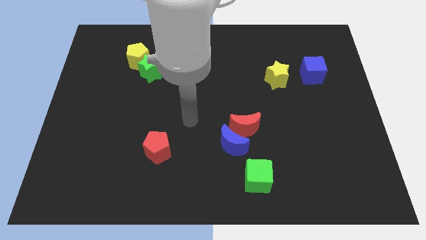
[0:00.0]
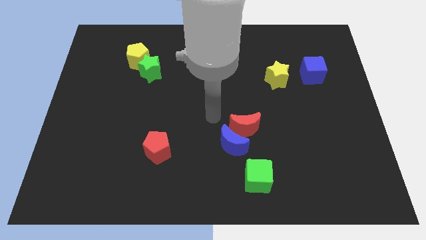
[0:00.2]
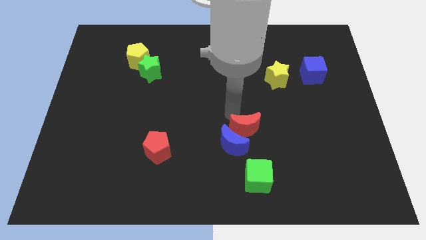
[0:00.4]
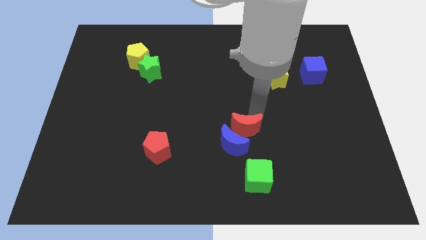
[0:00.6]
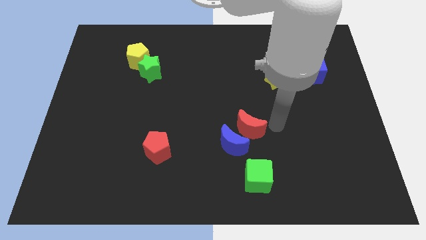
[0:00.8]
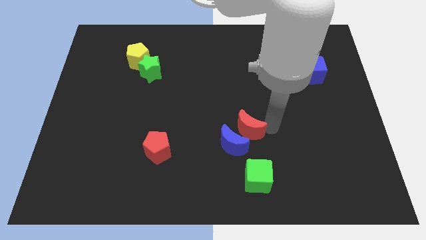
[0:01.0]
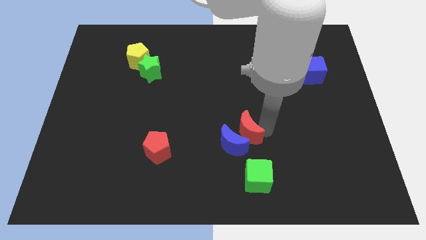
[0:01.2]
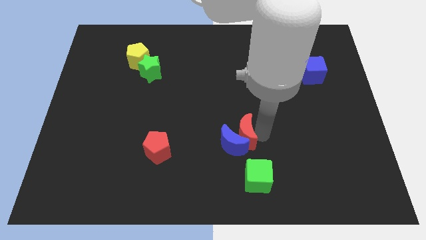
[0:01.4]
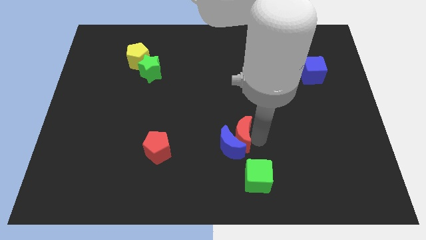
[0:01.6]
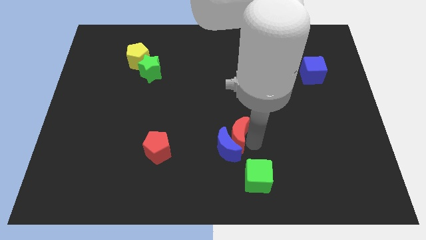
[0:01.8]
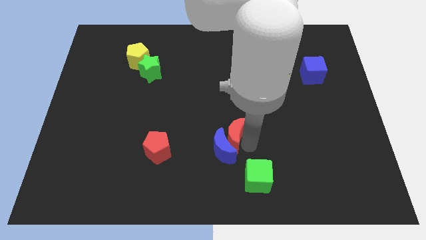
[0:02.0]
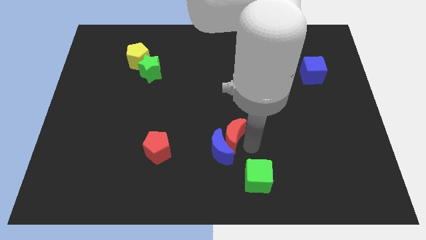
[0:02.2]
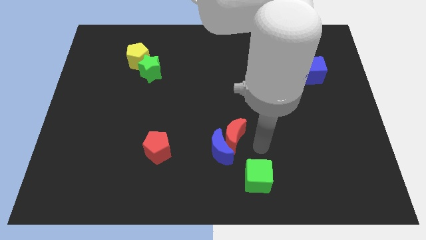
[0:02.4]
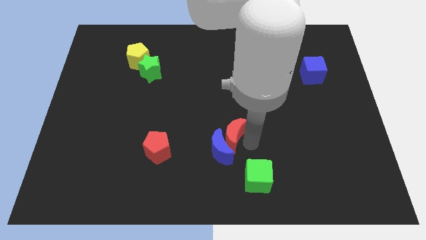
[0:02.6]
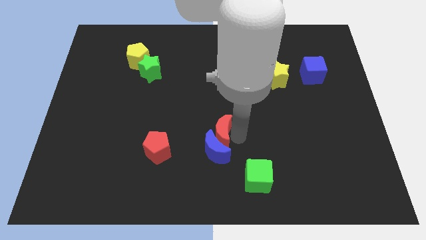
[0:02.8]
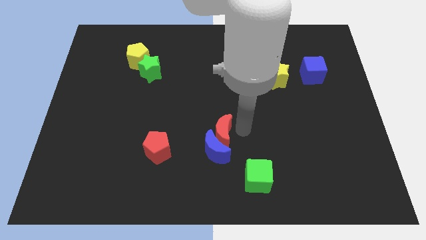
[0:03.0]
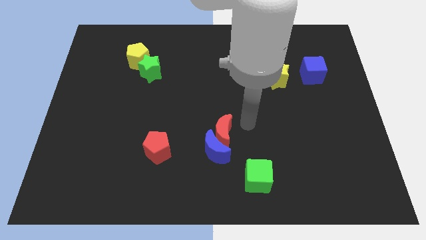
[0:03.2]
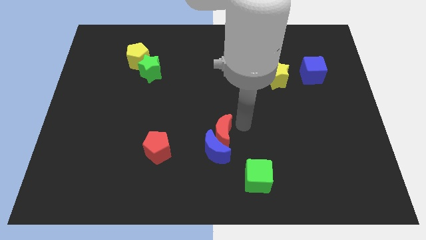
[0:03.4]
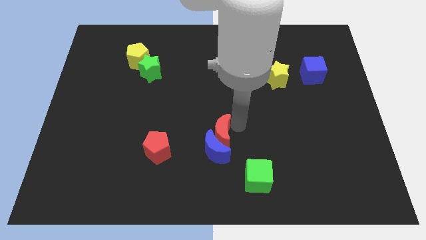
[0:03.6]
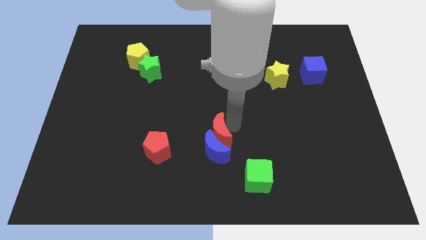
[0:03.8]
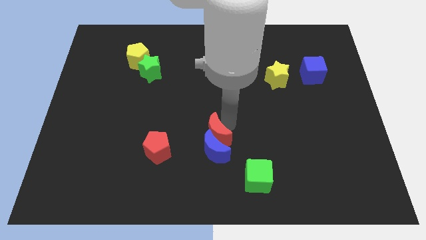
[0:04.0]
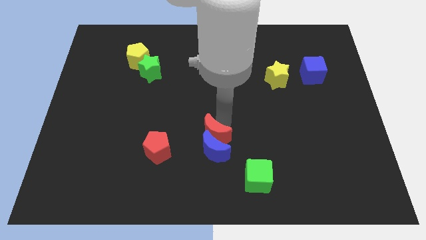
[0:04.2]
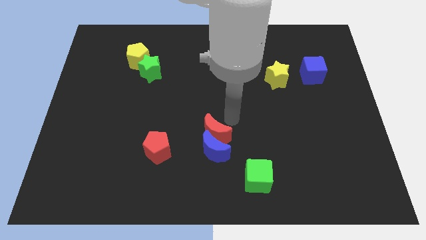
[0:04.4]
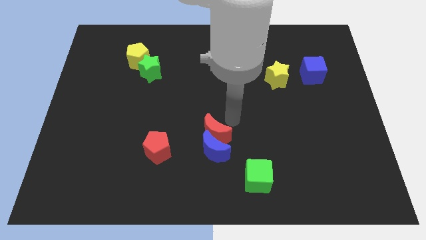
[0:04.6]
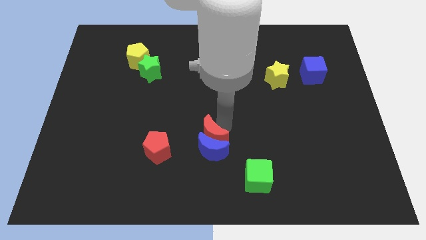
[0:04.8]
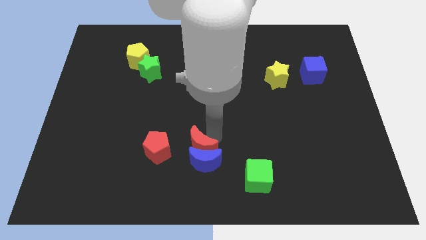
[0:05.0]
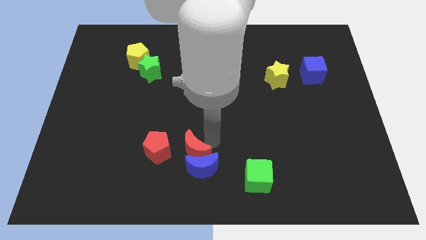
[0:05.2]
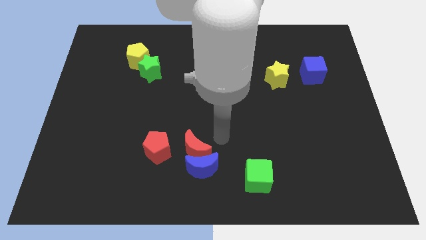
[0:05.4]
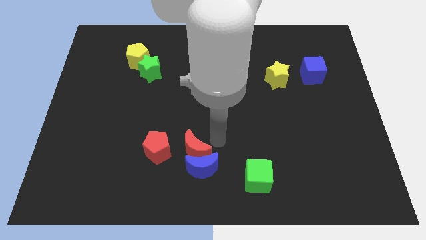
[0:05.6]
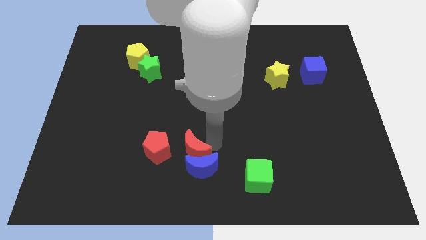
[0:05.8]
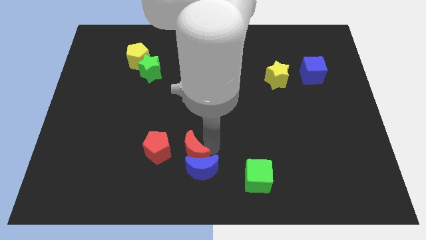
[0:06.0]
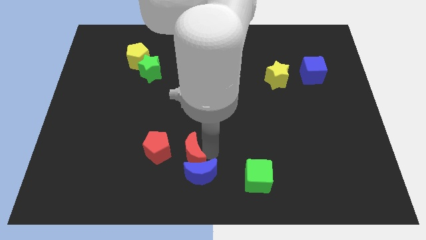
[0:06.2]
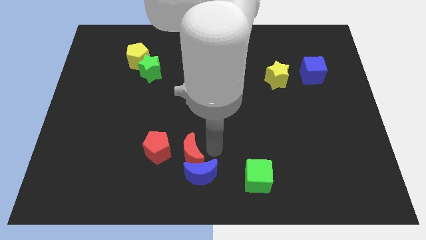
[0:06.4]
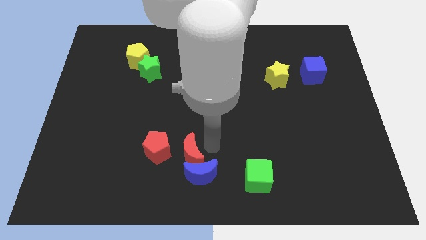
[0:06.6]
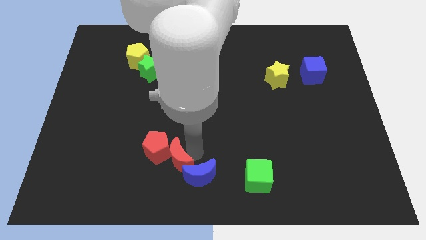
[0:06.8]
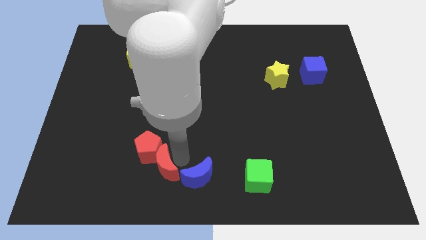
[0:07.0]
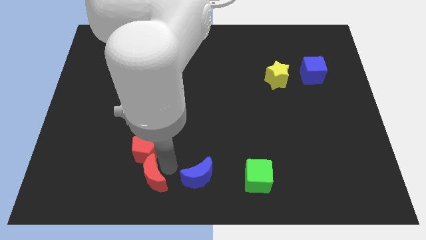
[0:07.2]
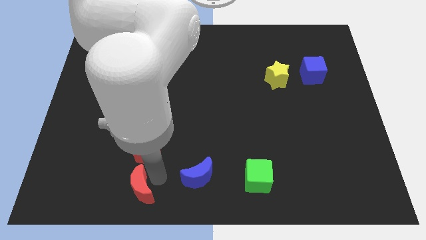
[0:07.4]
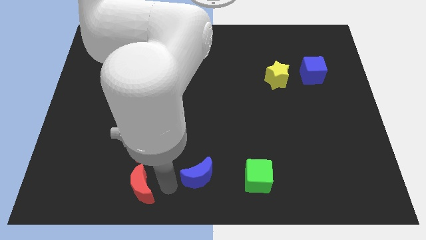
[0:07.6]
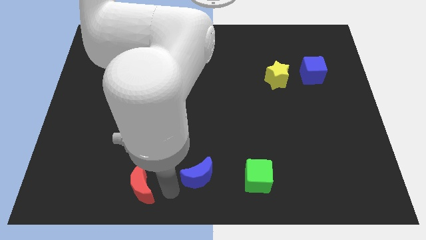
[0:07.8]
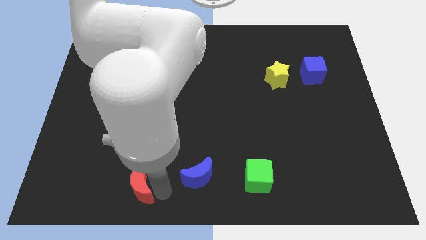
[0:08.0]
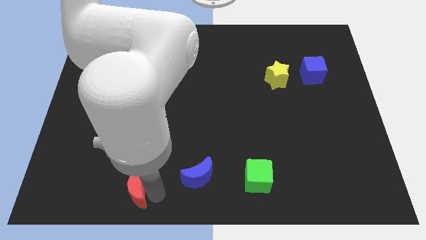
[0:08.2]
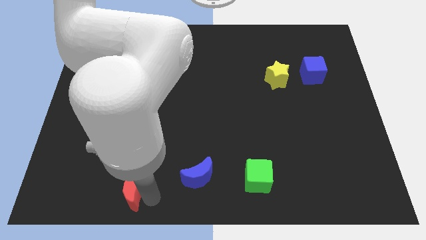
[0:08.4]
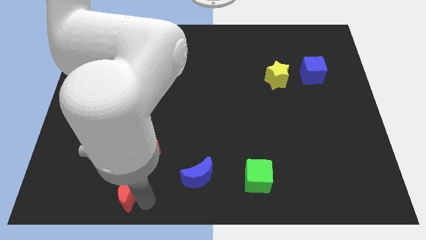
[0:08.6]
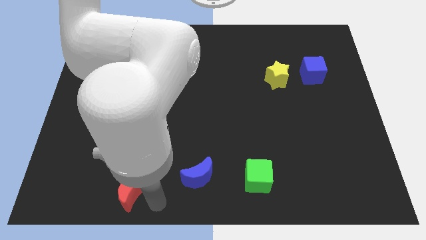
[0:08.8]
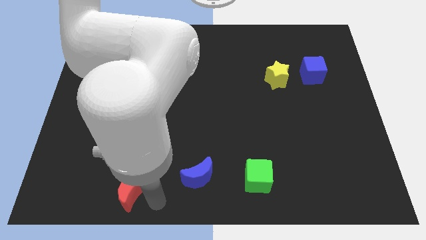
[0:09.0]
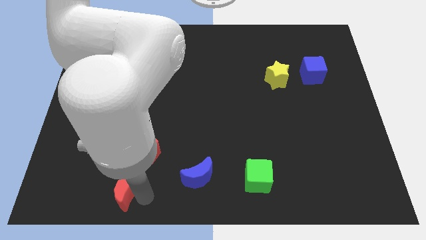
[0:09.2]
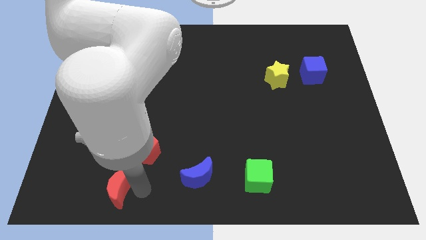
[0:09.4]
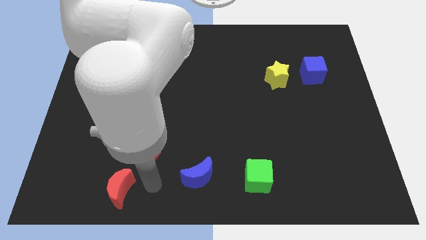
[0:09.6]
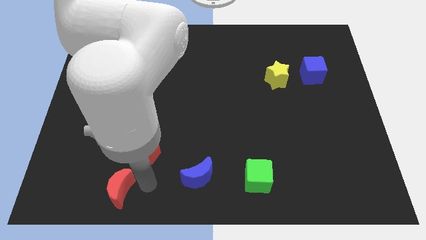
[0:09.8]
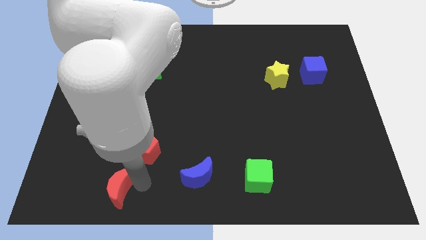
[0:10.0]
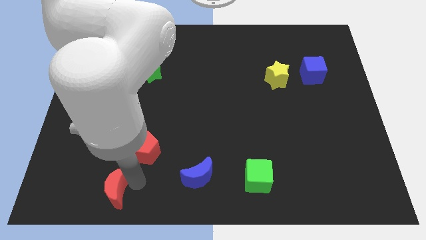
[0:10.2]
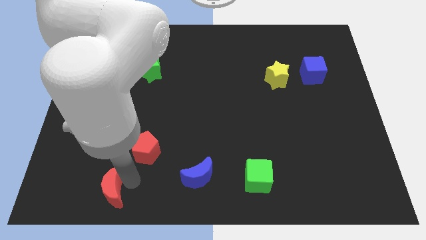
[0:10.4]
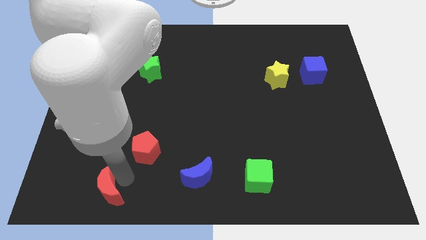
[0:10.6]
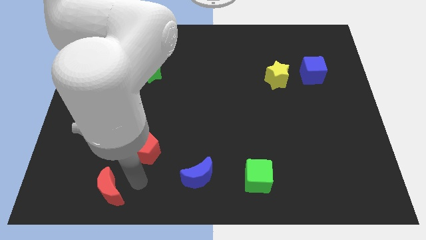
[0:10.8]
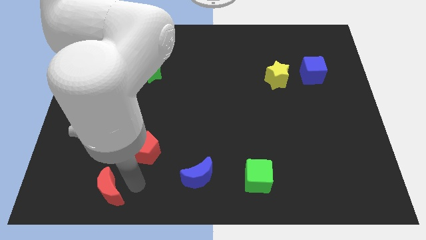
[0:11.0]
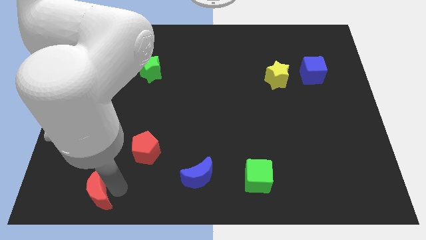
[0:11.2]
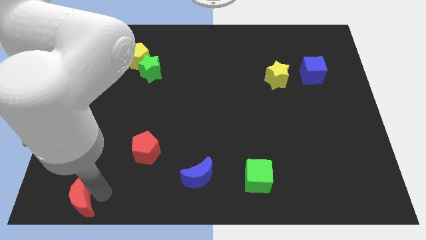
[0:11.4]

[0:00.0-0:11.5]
put the red moon to the bottom left of the board

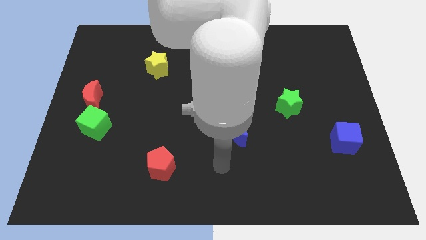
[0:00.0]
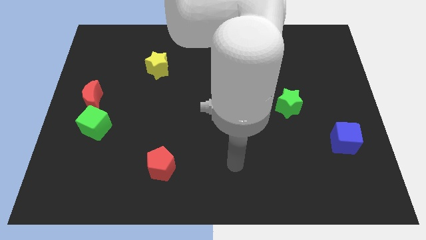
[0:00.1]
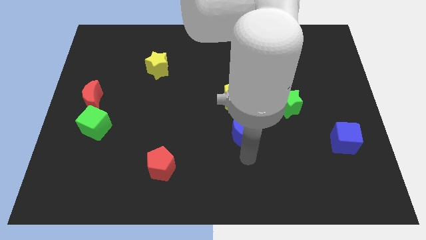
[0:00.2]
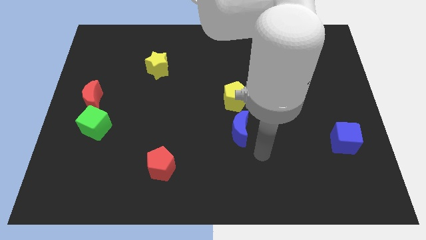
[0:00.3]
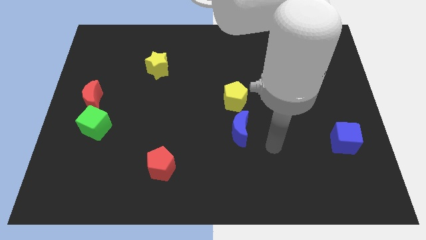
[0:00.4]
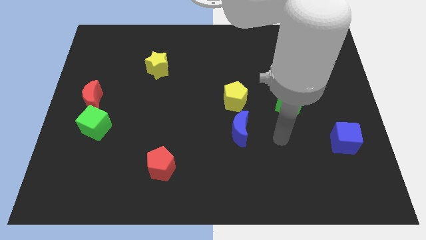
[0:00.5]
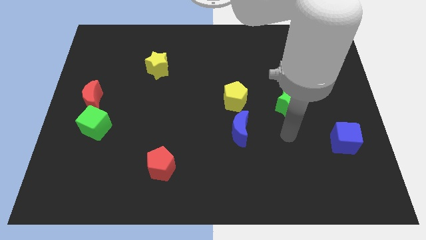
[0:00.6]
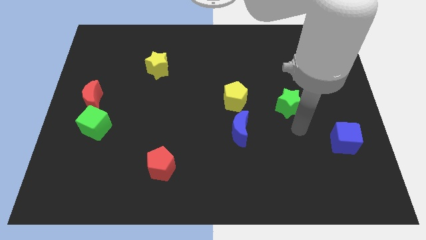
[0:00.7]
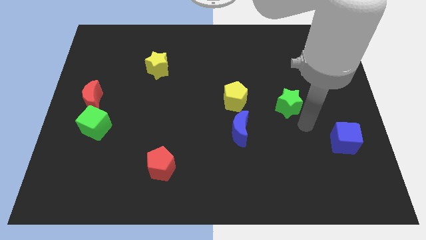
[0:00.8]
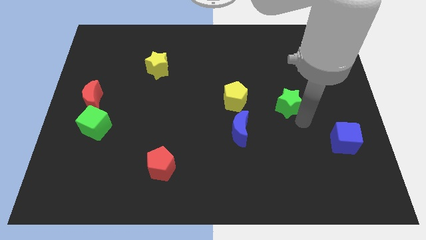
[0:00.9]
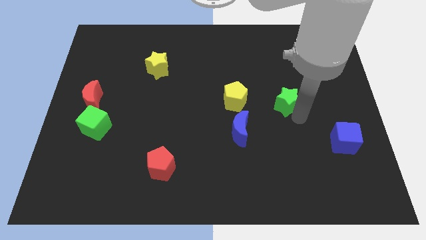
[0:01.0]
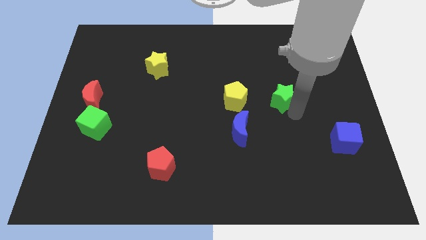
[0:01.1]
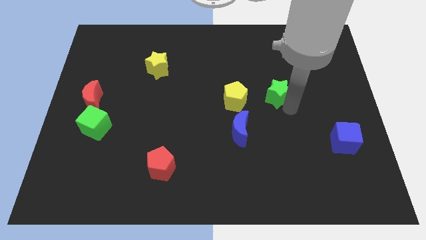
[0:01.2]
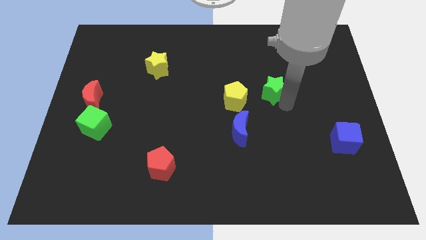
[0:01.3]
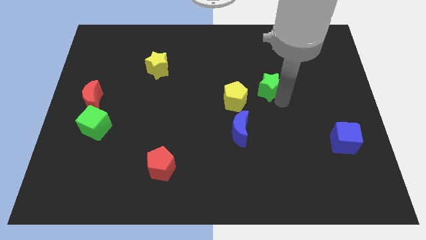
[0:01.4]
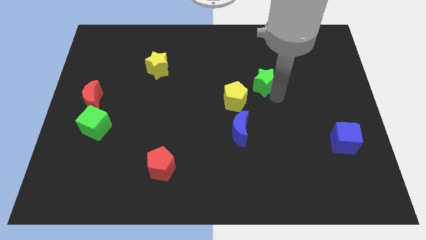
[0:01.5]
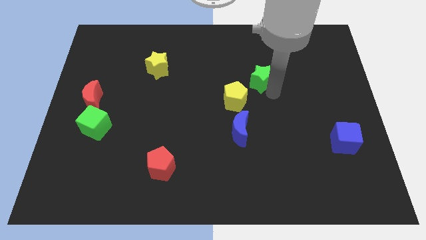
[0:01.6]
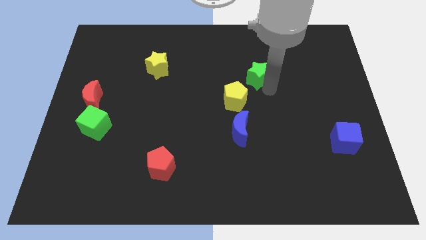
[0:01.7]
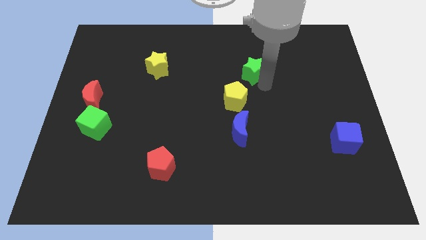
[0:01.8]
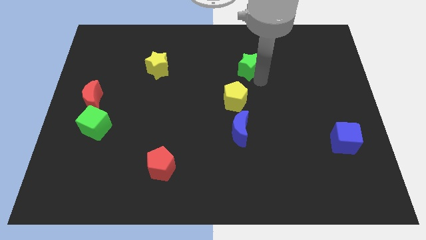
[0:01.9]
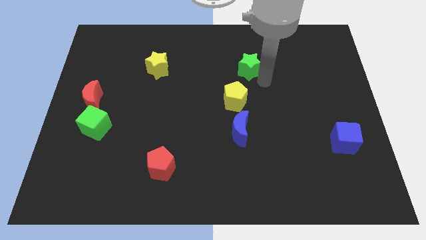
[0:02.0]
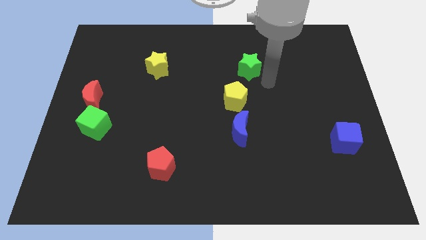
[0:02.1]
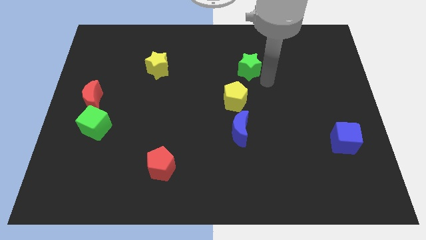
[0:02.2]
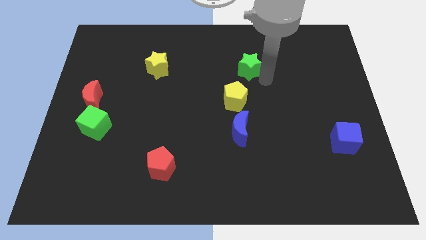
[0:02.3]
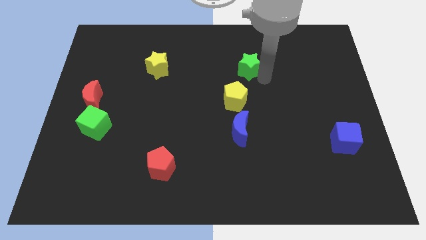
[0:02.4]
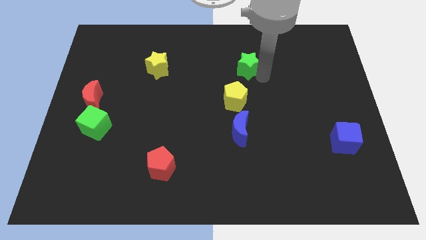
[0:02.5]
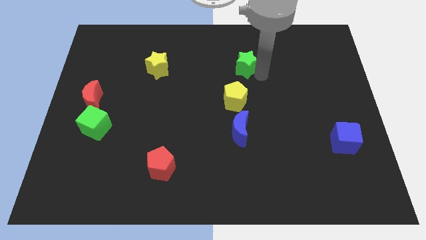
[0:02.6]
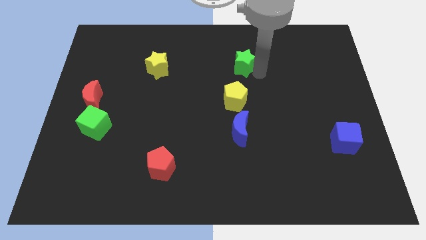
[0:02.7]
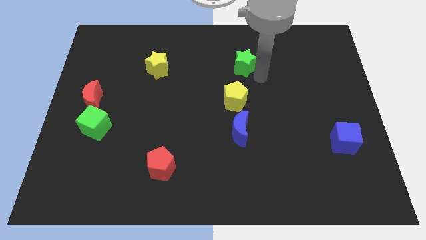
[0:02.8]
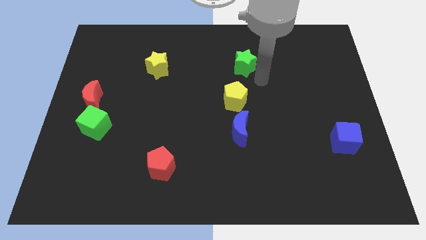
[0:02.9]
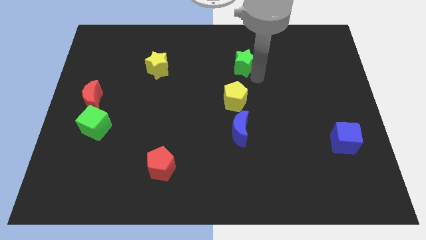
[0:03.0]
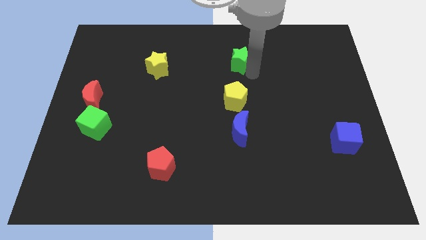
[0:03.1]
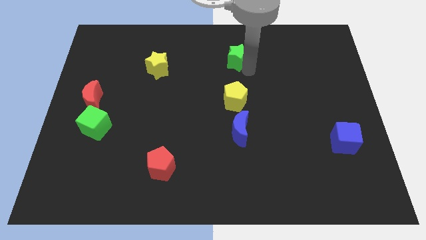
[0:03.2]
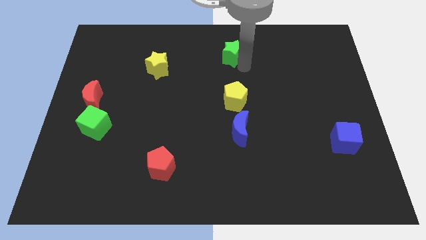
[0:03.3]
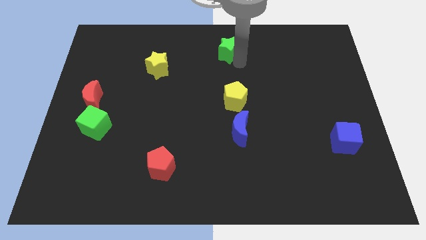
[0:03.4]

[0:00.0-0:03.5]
push the green star to the top side
